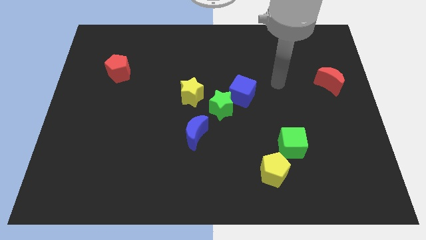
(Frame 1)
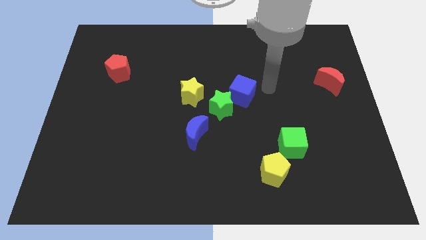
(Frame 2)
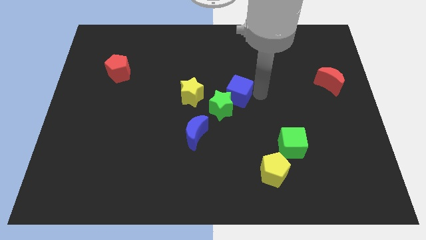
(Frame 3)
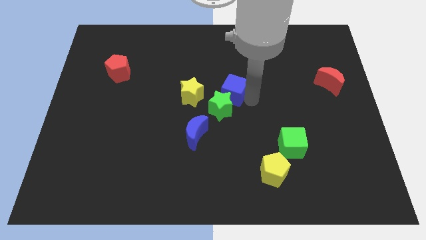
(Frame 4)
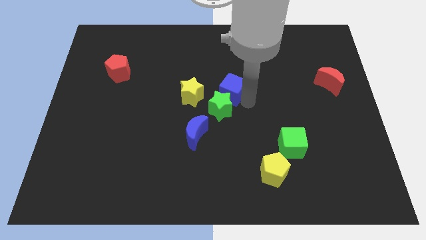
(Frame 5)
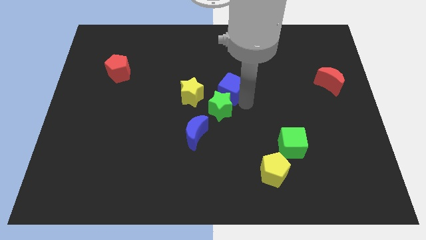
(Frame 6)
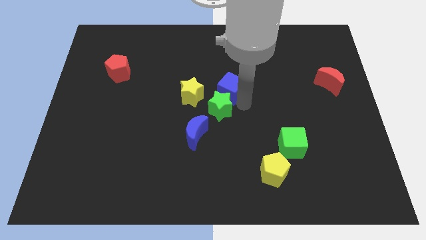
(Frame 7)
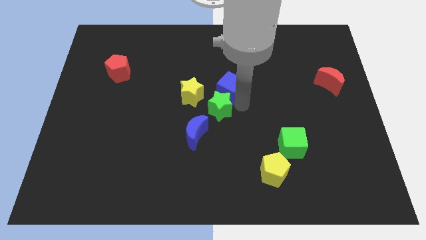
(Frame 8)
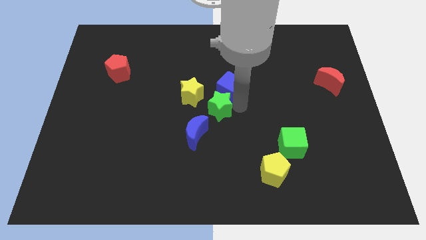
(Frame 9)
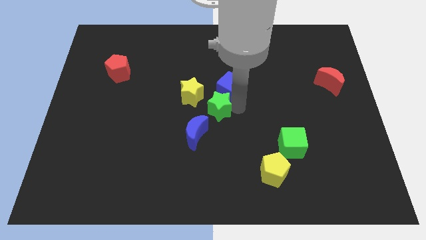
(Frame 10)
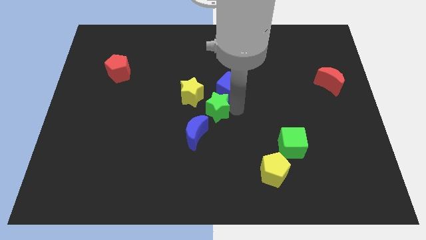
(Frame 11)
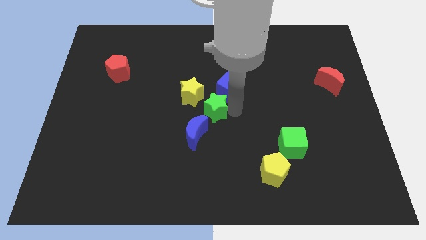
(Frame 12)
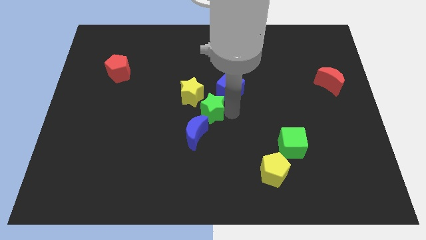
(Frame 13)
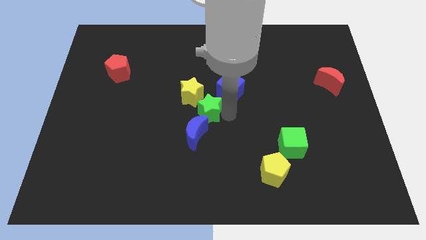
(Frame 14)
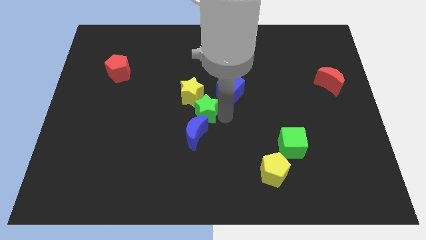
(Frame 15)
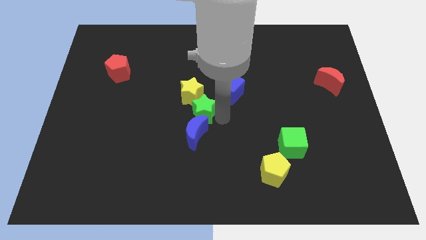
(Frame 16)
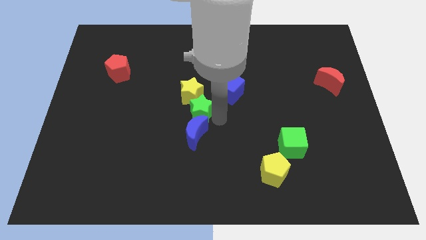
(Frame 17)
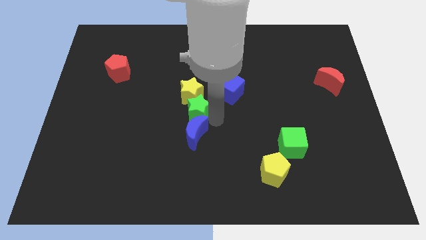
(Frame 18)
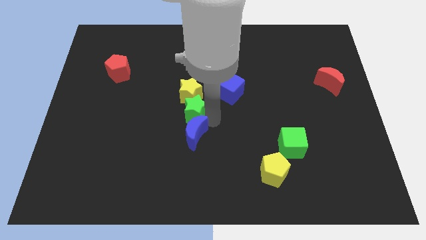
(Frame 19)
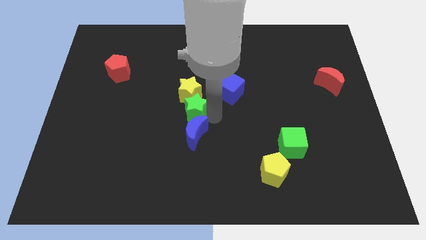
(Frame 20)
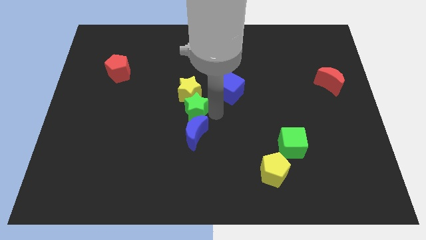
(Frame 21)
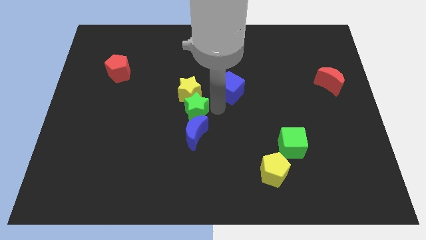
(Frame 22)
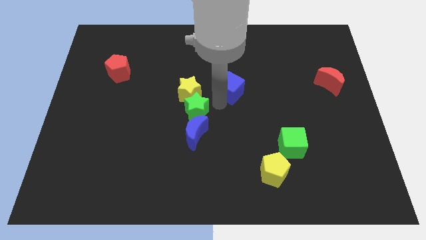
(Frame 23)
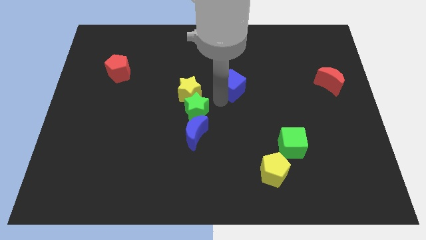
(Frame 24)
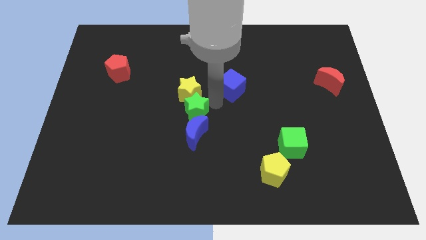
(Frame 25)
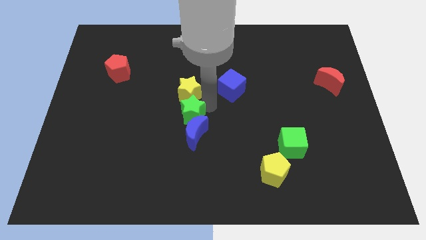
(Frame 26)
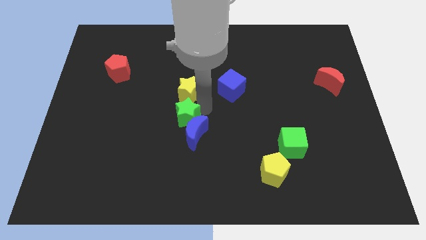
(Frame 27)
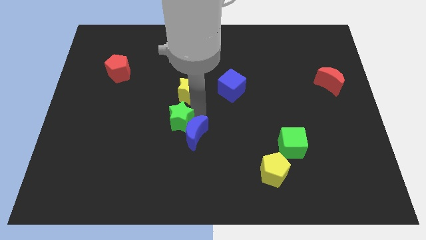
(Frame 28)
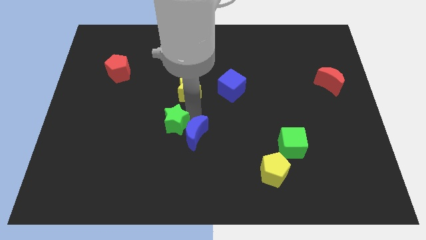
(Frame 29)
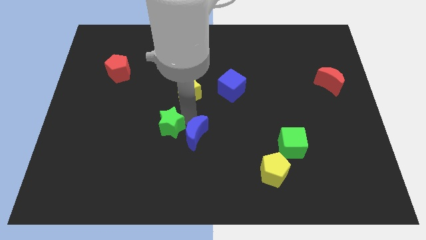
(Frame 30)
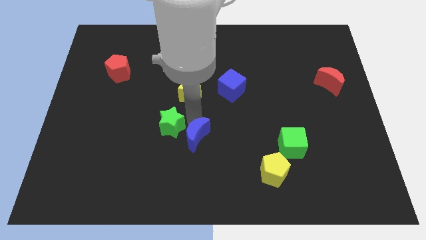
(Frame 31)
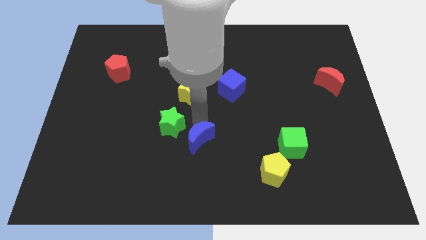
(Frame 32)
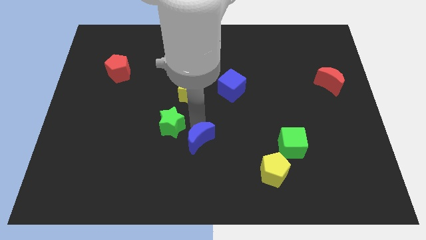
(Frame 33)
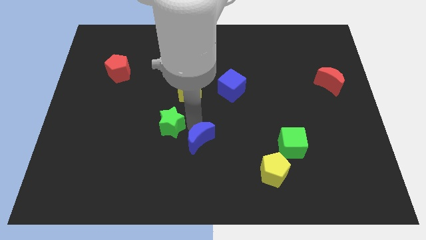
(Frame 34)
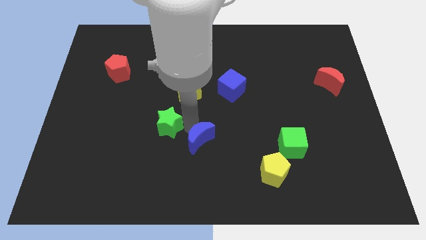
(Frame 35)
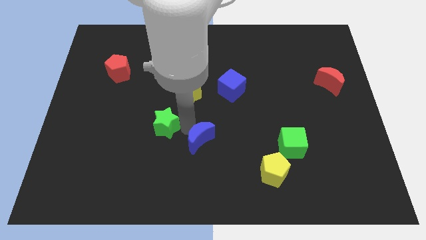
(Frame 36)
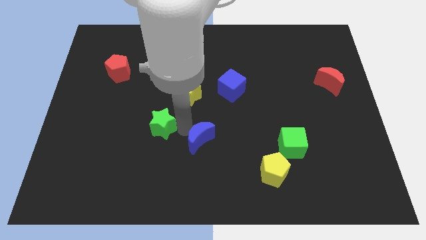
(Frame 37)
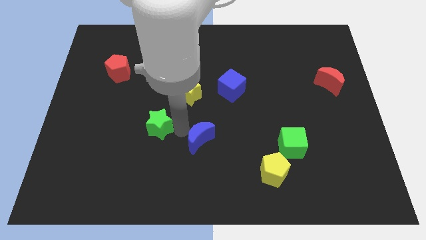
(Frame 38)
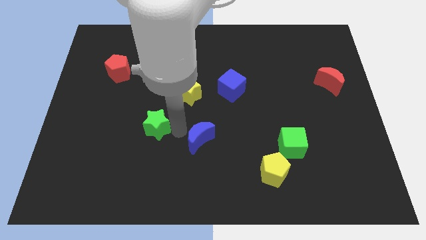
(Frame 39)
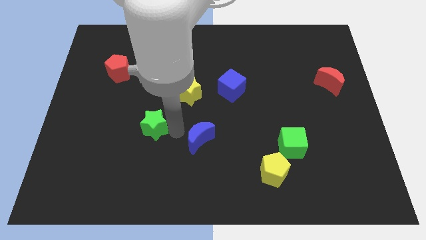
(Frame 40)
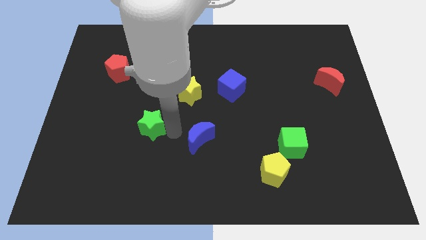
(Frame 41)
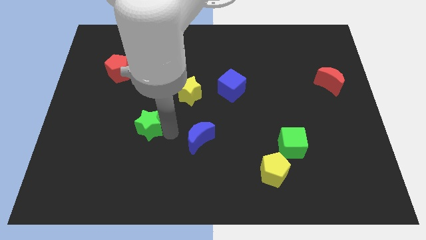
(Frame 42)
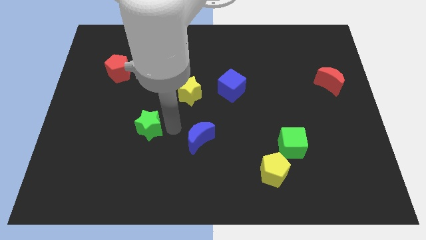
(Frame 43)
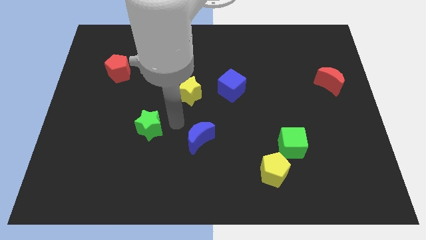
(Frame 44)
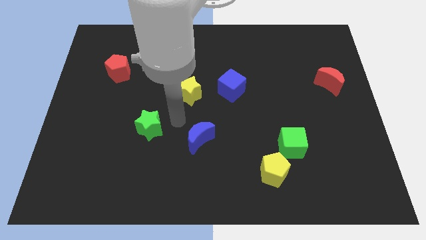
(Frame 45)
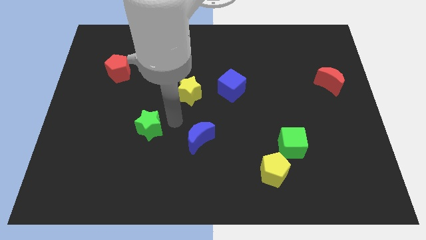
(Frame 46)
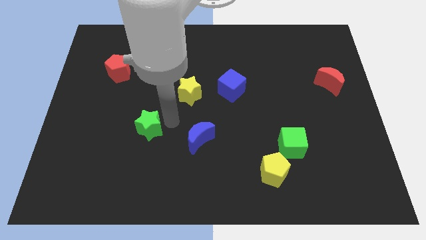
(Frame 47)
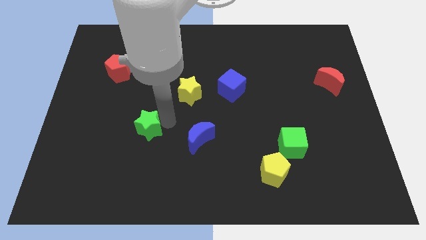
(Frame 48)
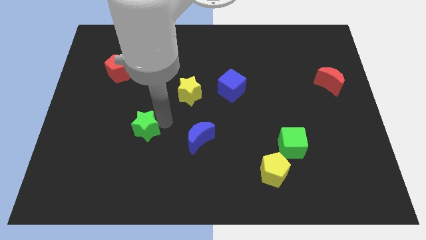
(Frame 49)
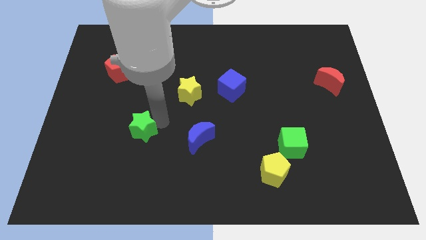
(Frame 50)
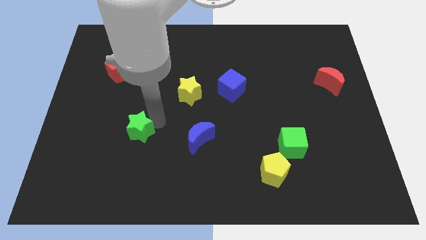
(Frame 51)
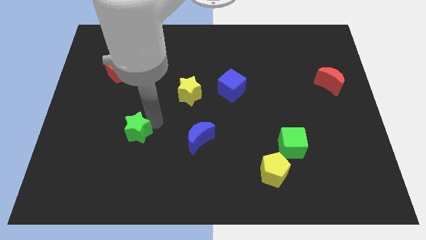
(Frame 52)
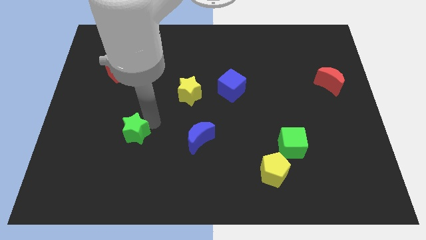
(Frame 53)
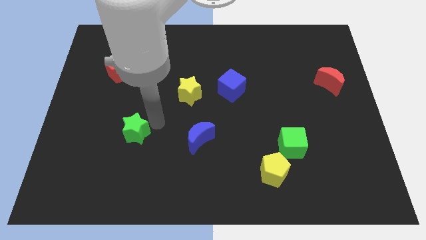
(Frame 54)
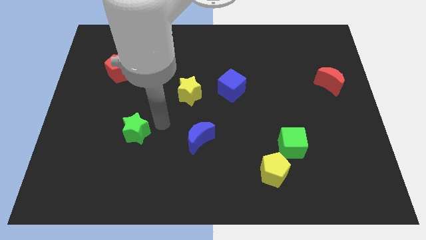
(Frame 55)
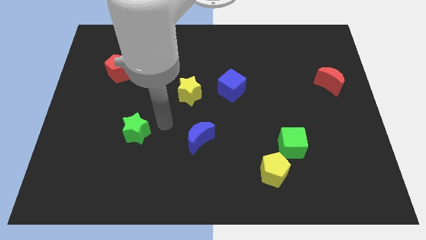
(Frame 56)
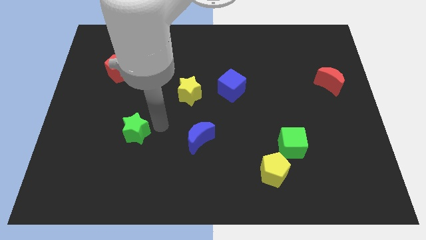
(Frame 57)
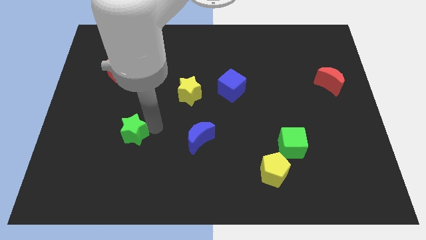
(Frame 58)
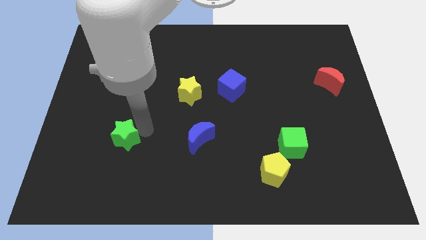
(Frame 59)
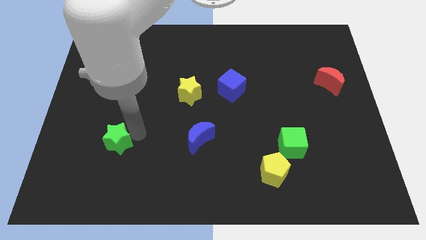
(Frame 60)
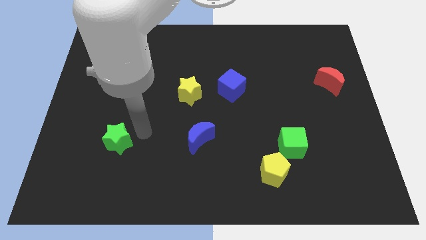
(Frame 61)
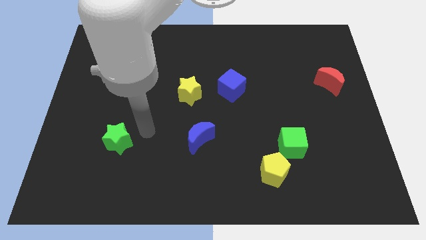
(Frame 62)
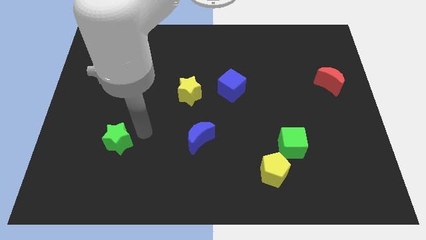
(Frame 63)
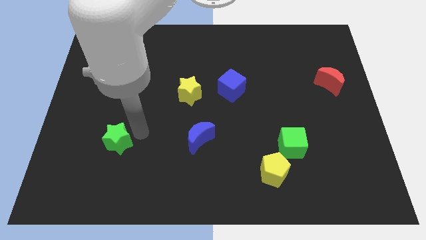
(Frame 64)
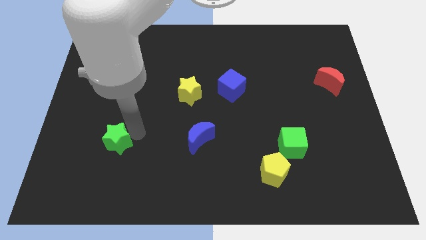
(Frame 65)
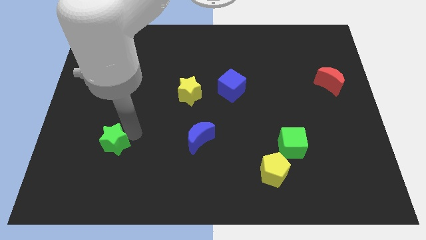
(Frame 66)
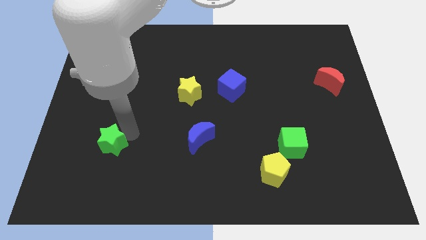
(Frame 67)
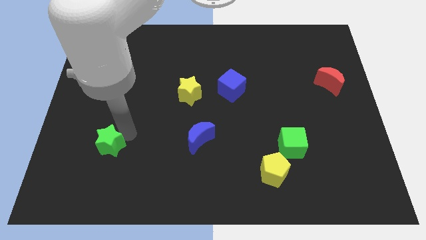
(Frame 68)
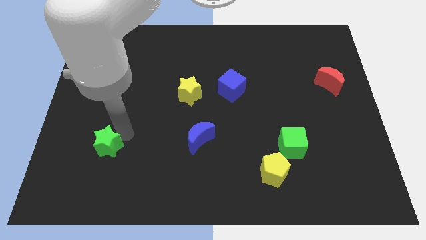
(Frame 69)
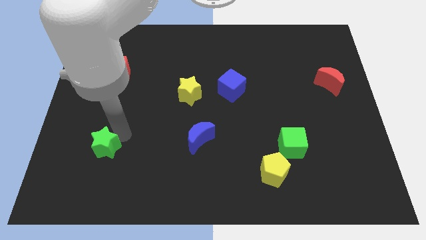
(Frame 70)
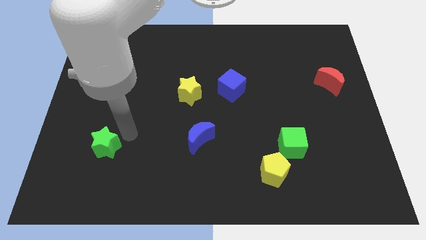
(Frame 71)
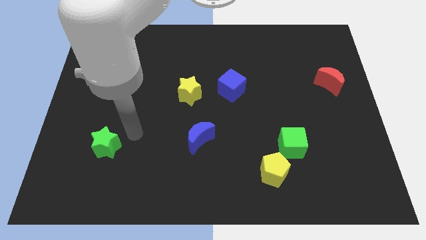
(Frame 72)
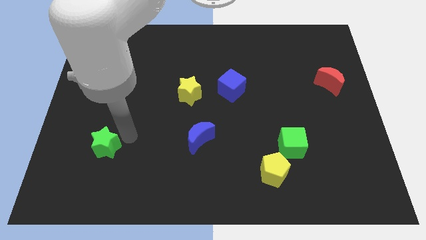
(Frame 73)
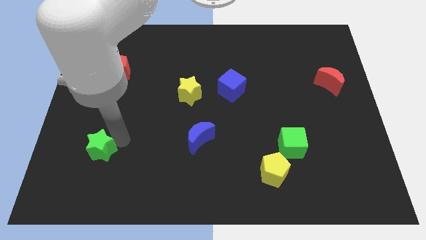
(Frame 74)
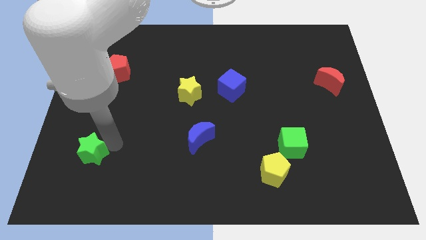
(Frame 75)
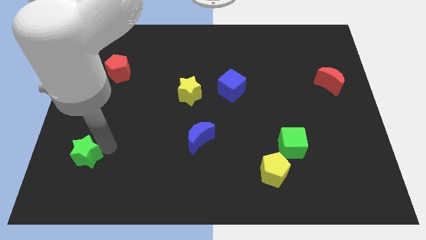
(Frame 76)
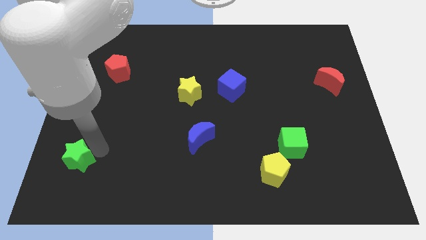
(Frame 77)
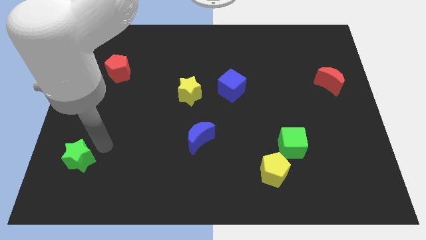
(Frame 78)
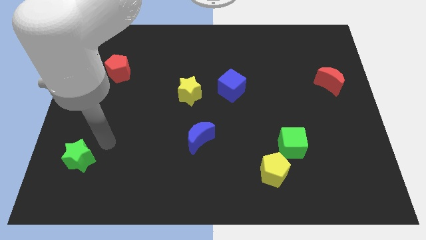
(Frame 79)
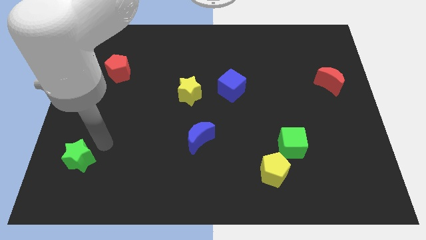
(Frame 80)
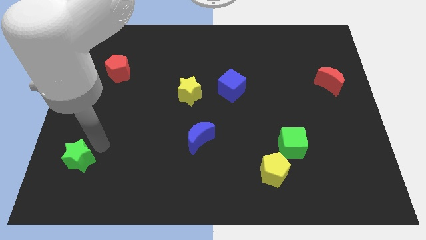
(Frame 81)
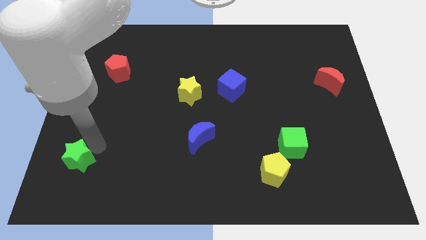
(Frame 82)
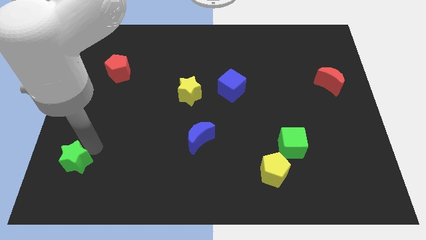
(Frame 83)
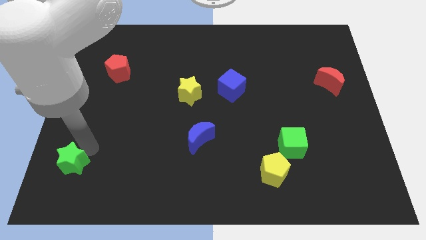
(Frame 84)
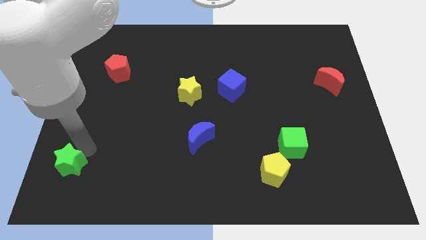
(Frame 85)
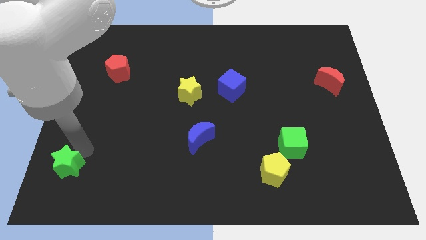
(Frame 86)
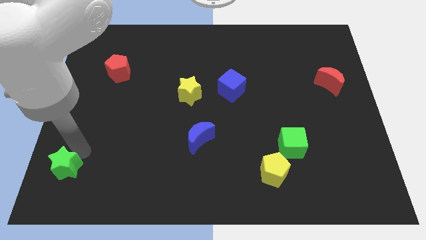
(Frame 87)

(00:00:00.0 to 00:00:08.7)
slide the green star to the lower left corner
